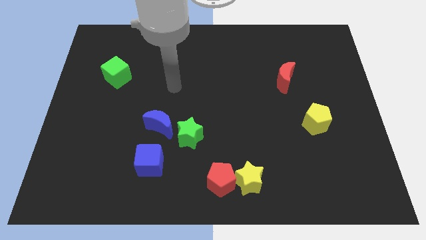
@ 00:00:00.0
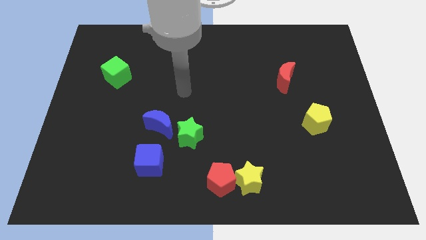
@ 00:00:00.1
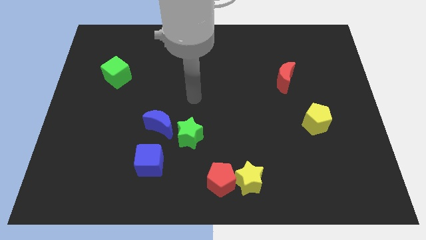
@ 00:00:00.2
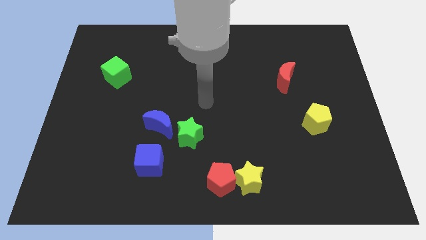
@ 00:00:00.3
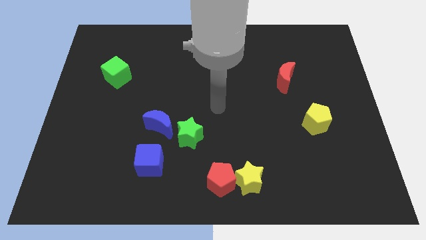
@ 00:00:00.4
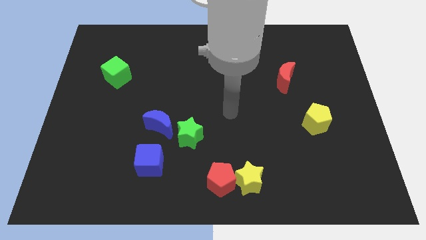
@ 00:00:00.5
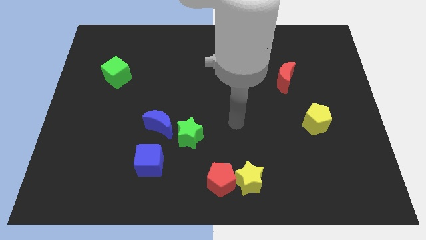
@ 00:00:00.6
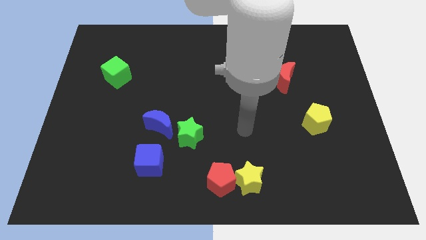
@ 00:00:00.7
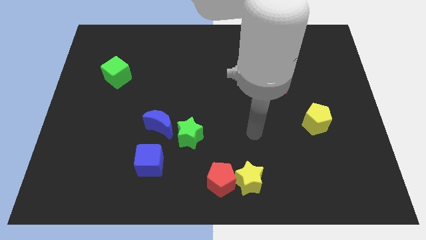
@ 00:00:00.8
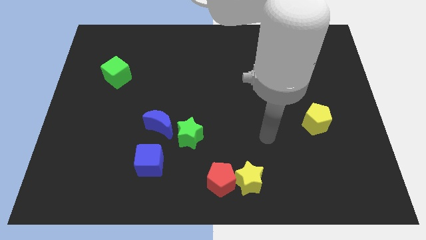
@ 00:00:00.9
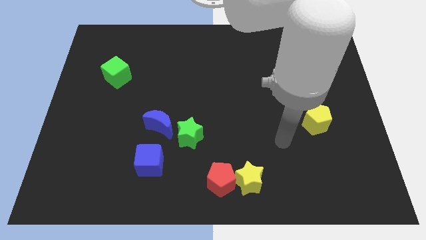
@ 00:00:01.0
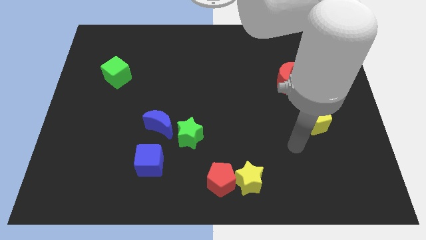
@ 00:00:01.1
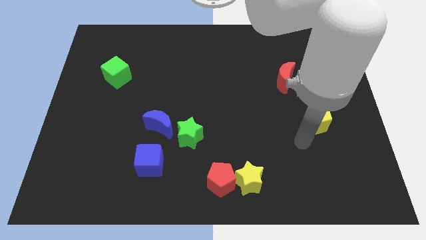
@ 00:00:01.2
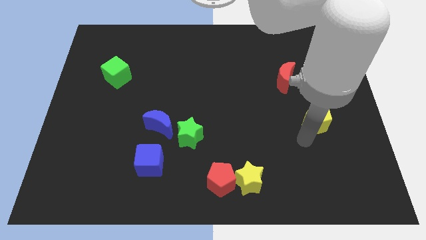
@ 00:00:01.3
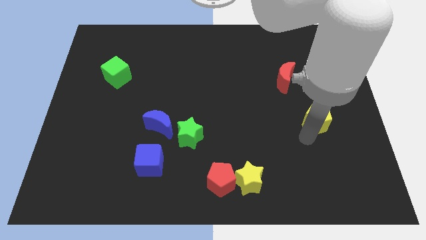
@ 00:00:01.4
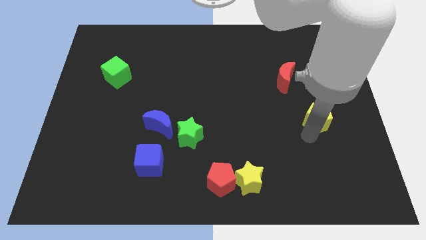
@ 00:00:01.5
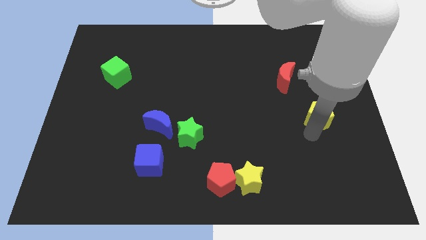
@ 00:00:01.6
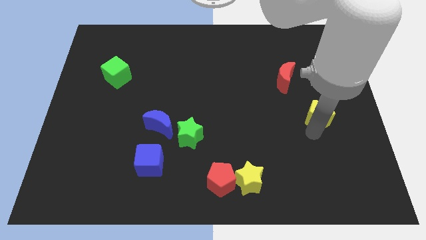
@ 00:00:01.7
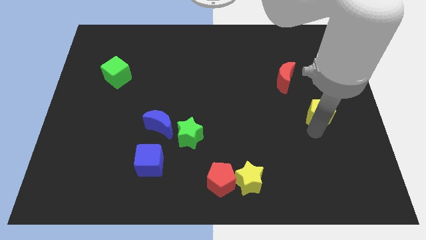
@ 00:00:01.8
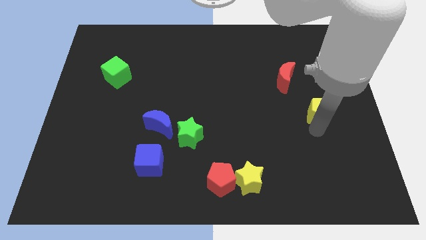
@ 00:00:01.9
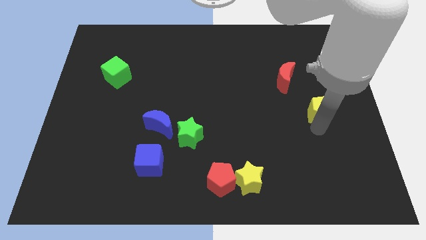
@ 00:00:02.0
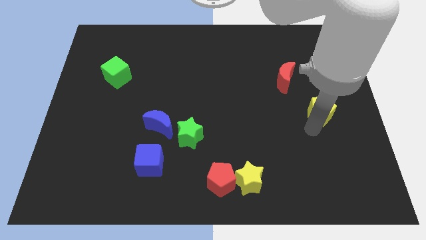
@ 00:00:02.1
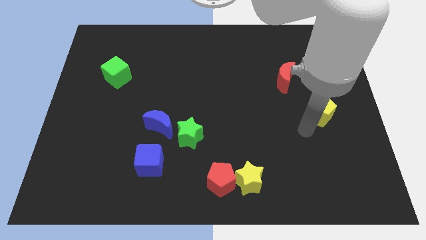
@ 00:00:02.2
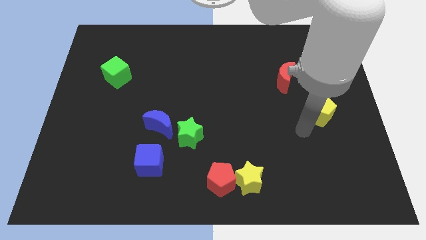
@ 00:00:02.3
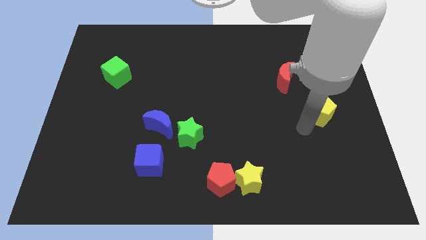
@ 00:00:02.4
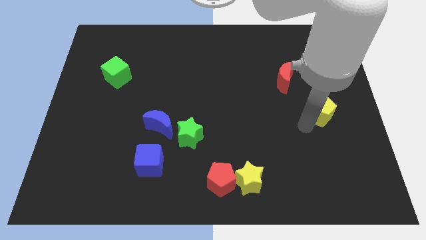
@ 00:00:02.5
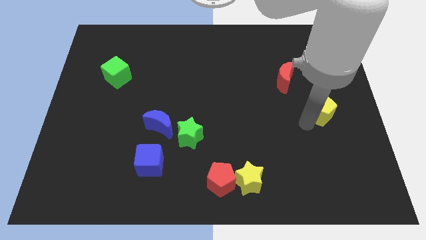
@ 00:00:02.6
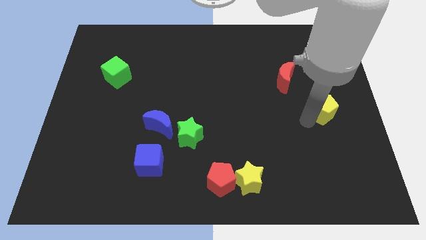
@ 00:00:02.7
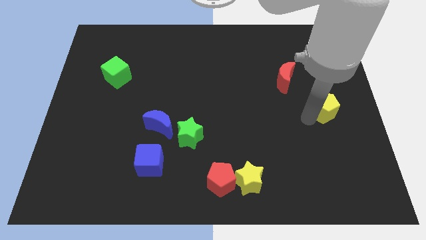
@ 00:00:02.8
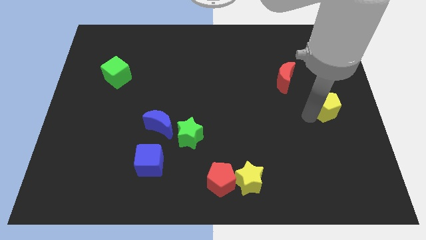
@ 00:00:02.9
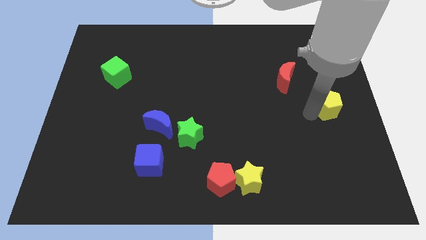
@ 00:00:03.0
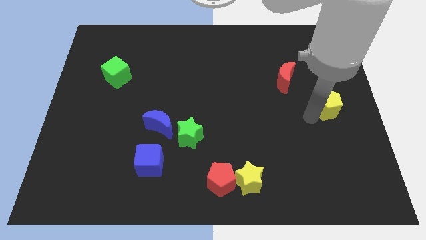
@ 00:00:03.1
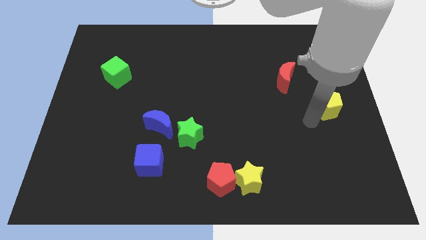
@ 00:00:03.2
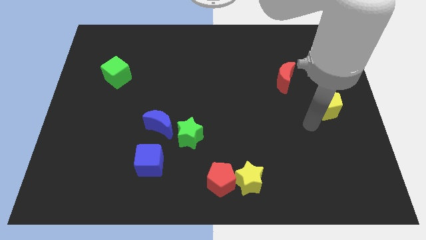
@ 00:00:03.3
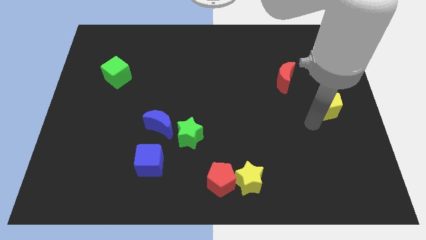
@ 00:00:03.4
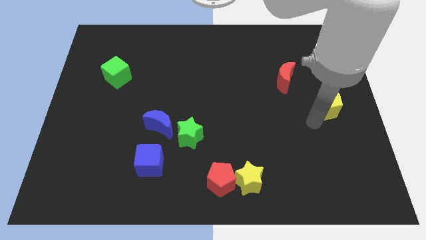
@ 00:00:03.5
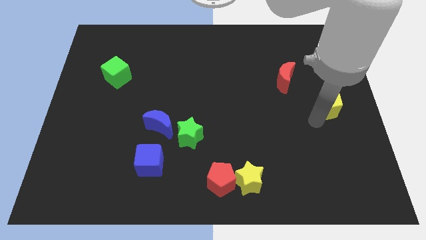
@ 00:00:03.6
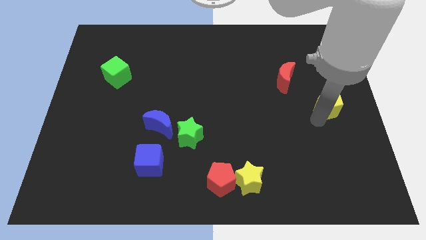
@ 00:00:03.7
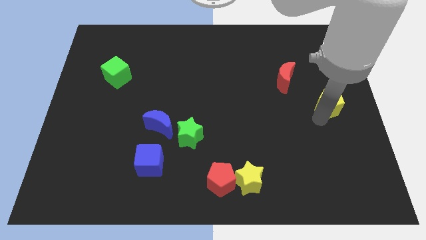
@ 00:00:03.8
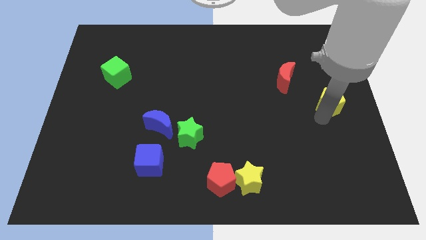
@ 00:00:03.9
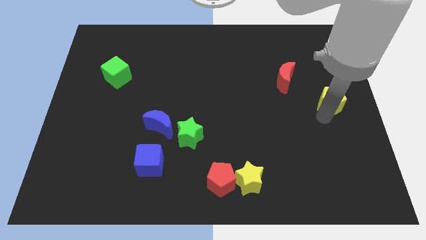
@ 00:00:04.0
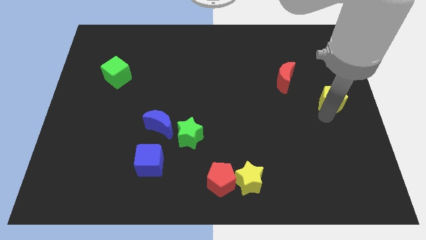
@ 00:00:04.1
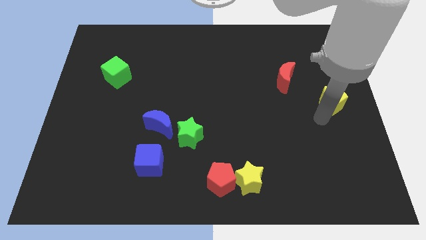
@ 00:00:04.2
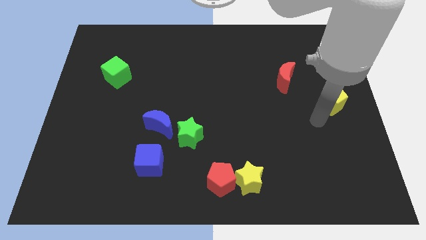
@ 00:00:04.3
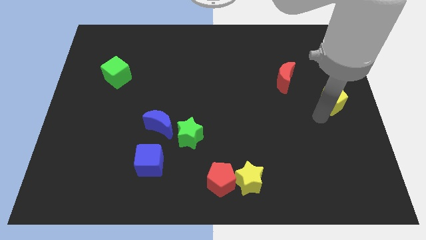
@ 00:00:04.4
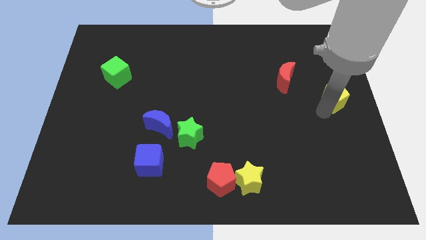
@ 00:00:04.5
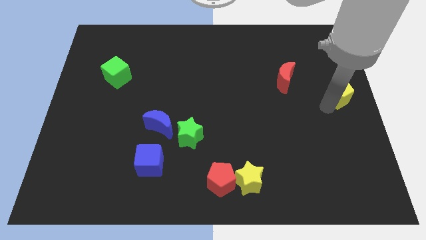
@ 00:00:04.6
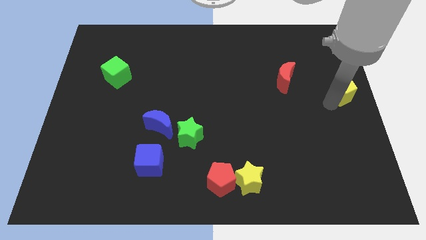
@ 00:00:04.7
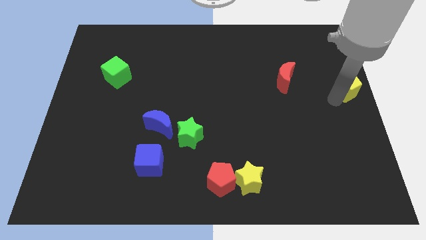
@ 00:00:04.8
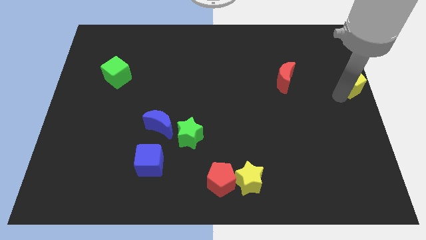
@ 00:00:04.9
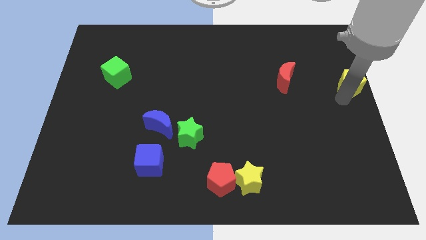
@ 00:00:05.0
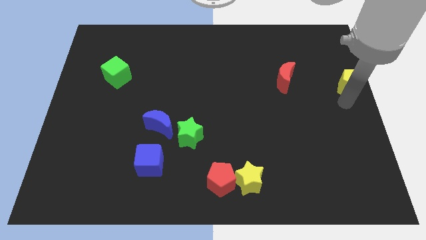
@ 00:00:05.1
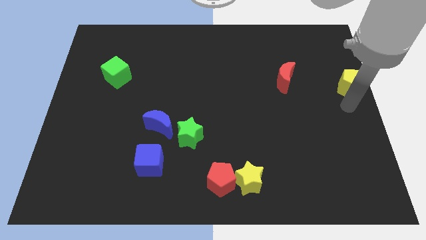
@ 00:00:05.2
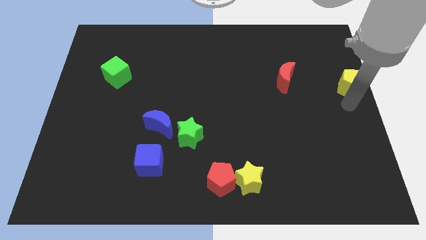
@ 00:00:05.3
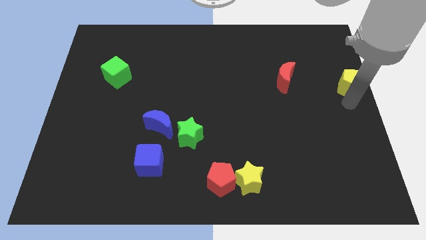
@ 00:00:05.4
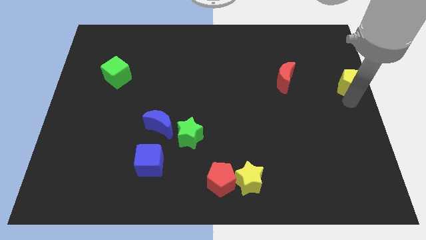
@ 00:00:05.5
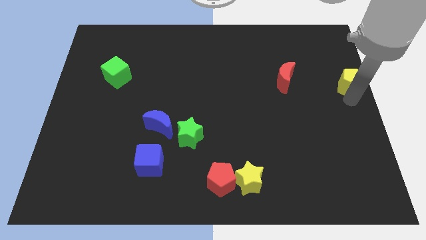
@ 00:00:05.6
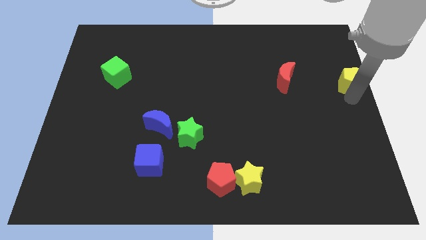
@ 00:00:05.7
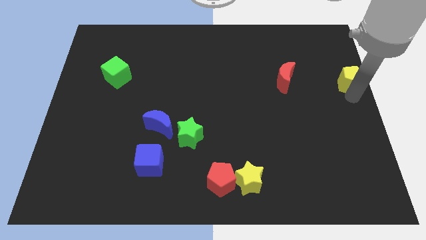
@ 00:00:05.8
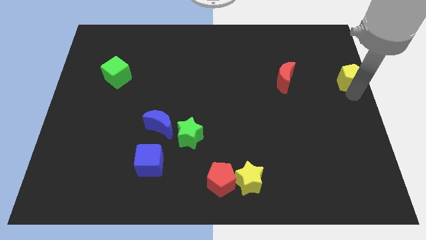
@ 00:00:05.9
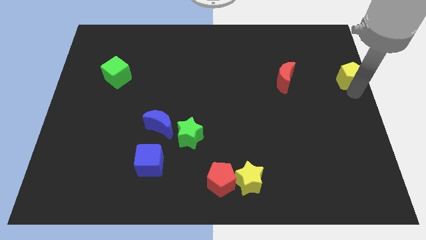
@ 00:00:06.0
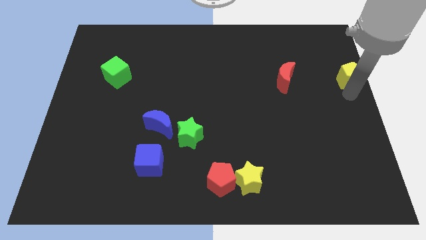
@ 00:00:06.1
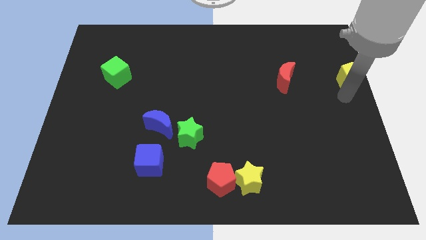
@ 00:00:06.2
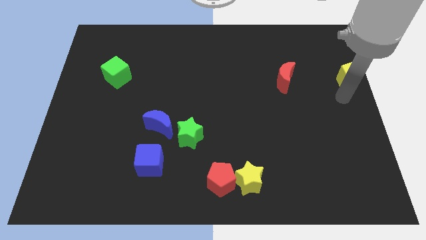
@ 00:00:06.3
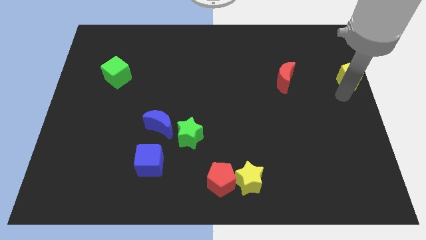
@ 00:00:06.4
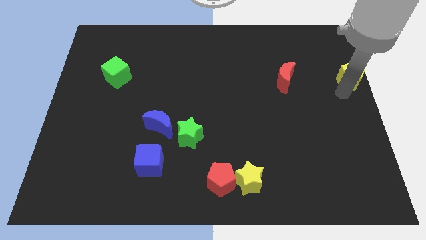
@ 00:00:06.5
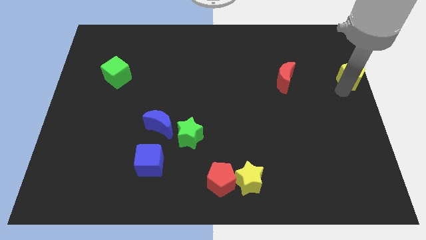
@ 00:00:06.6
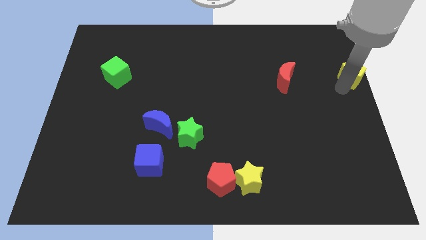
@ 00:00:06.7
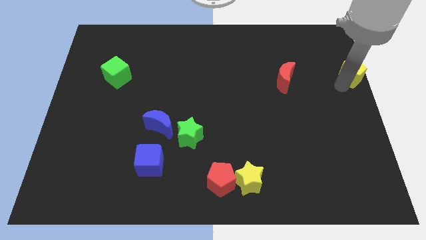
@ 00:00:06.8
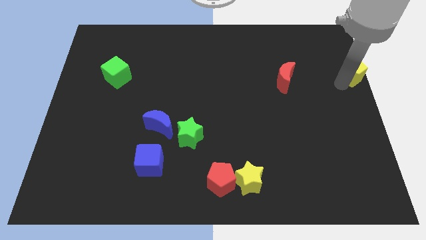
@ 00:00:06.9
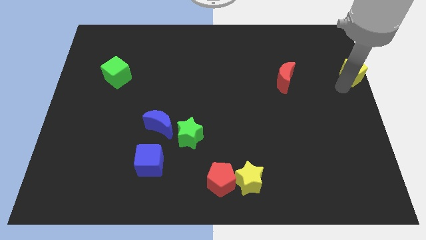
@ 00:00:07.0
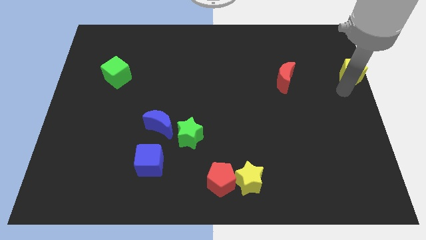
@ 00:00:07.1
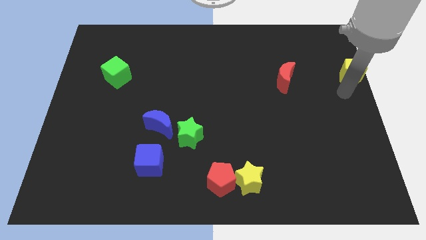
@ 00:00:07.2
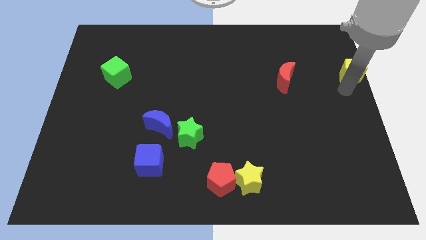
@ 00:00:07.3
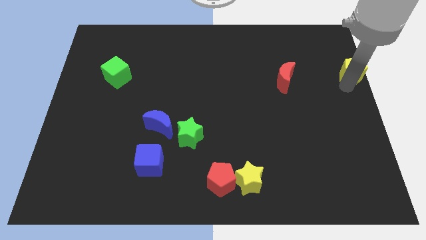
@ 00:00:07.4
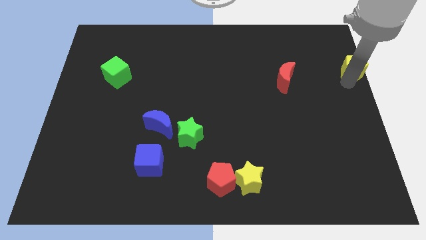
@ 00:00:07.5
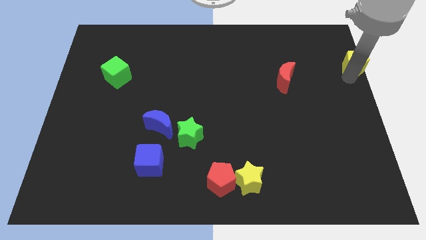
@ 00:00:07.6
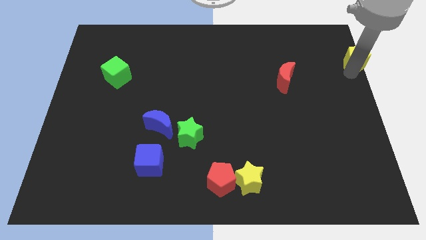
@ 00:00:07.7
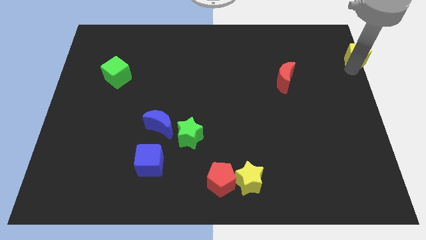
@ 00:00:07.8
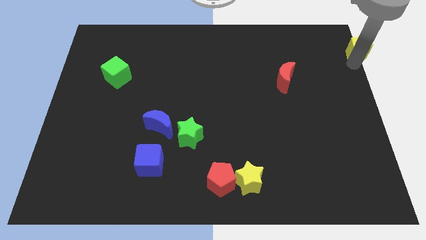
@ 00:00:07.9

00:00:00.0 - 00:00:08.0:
push the yellow pentagon to the upper right corner
